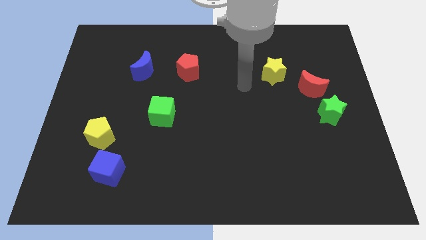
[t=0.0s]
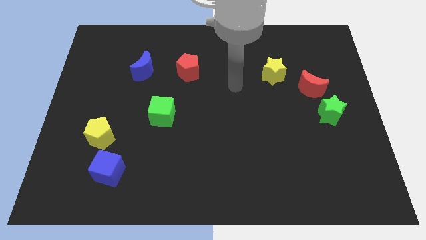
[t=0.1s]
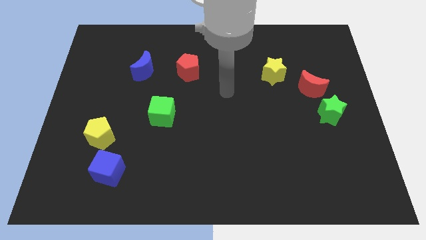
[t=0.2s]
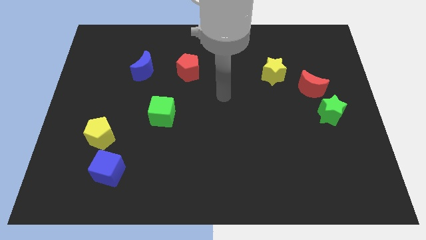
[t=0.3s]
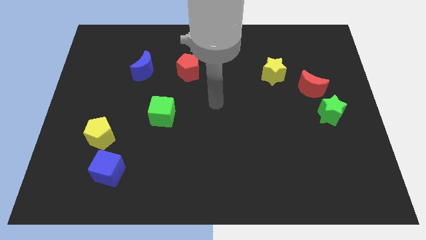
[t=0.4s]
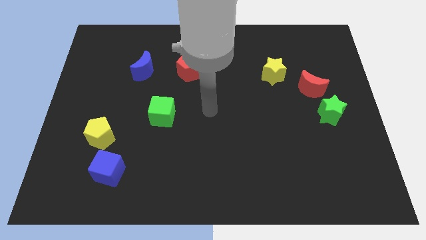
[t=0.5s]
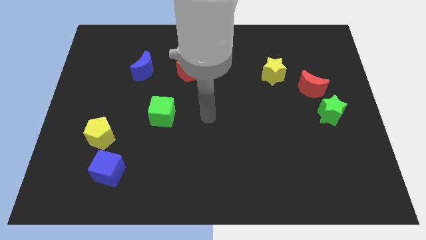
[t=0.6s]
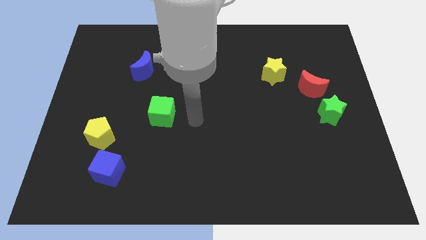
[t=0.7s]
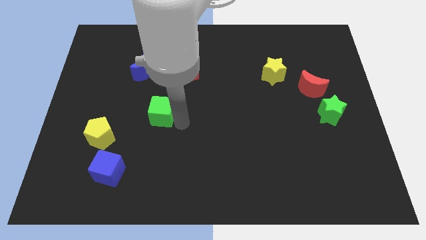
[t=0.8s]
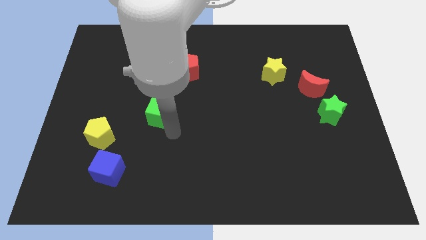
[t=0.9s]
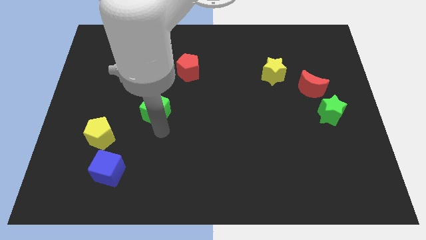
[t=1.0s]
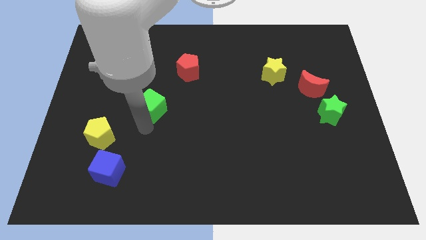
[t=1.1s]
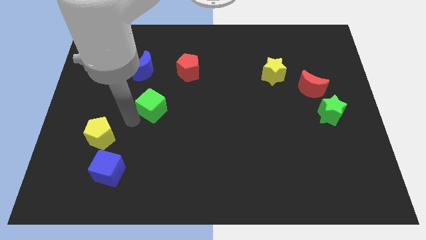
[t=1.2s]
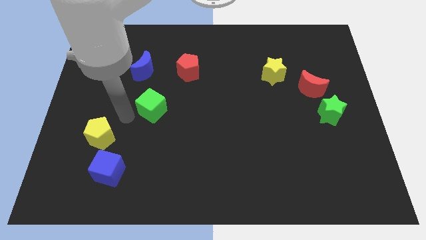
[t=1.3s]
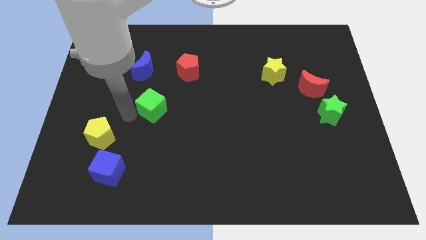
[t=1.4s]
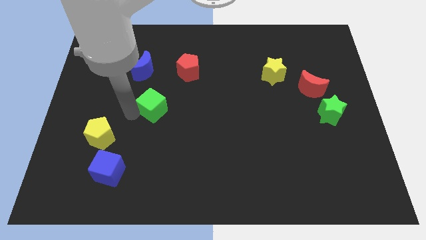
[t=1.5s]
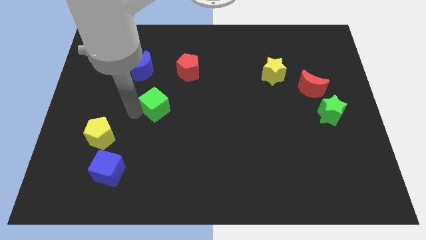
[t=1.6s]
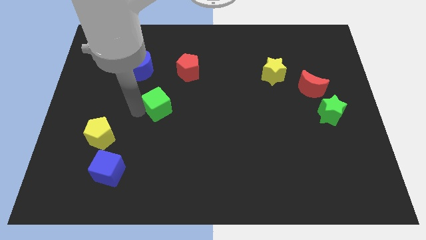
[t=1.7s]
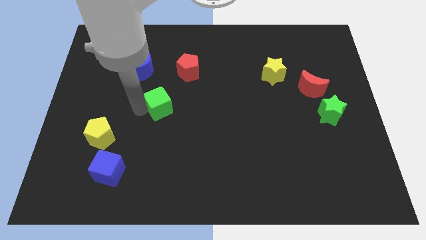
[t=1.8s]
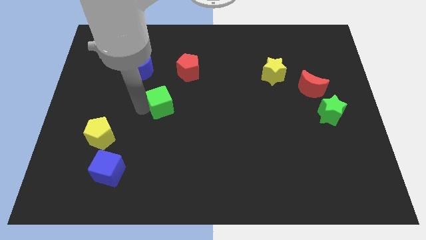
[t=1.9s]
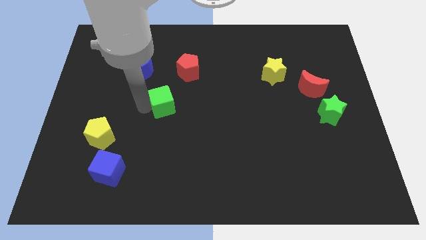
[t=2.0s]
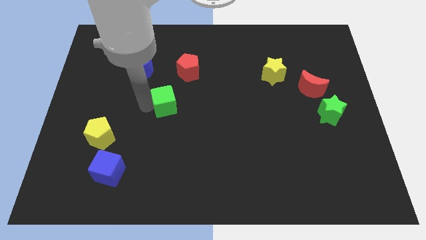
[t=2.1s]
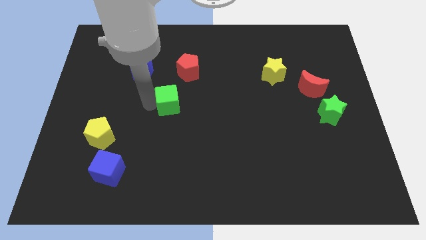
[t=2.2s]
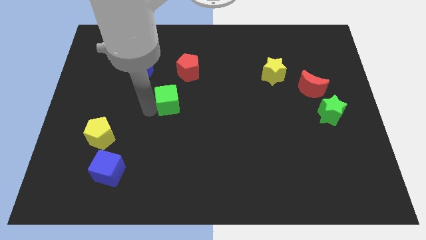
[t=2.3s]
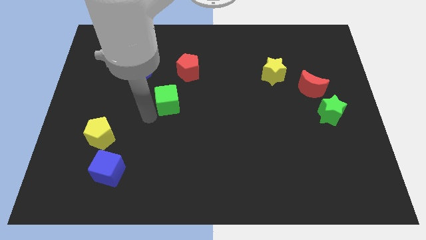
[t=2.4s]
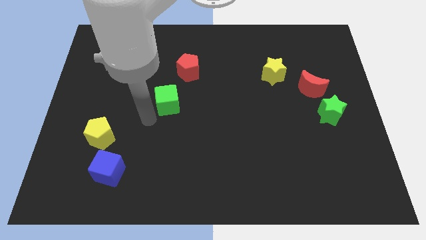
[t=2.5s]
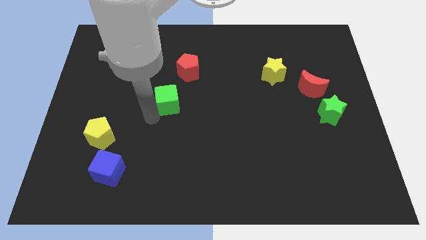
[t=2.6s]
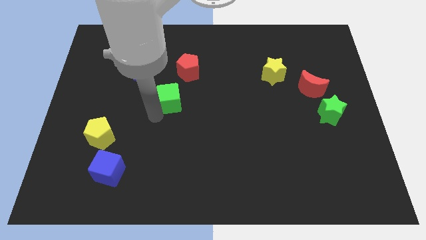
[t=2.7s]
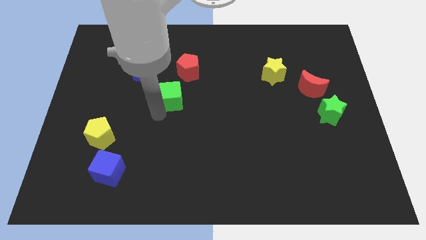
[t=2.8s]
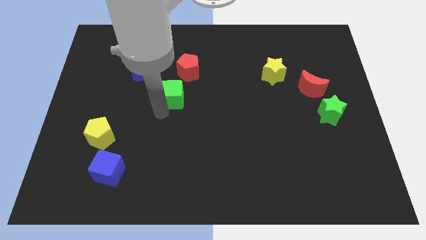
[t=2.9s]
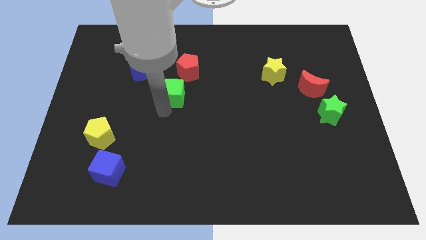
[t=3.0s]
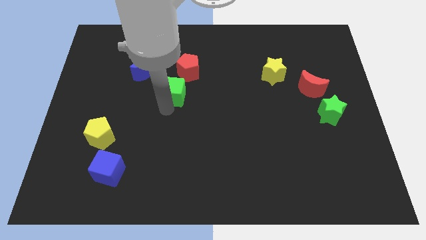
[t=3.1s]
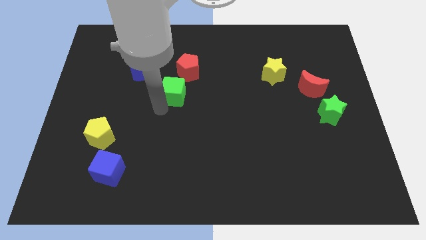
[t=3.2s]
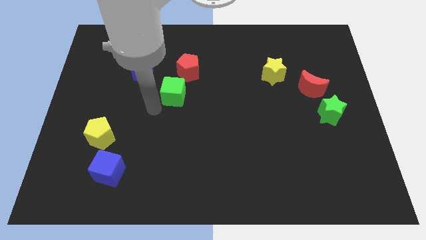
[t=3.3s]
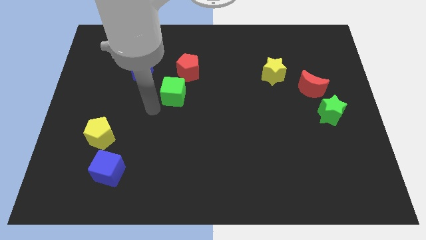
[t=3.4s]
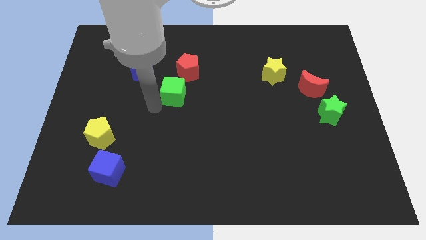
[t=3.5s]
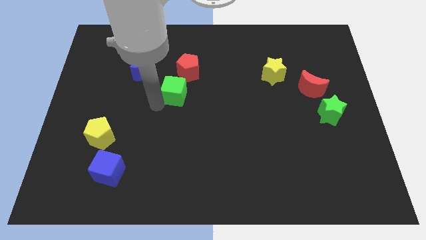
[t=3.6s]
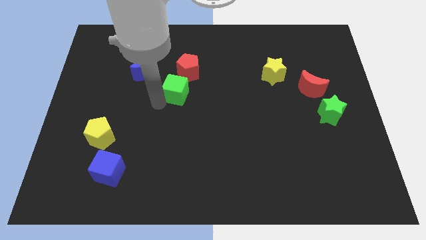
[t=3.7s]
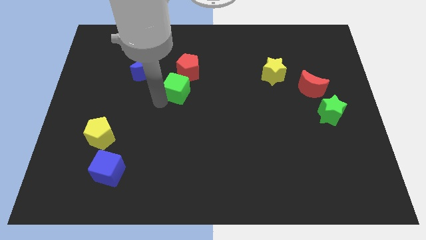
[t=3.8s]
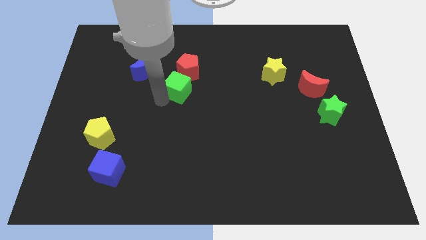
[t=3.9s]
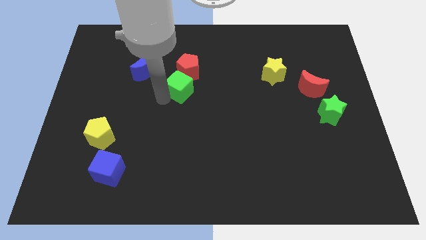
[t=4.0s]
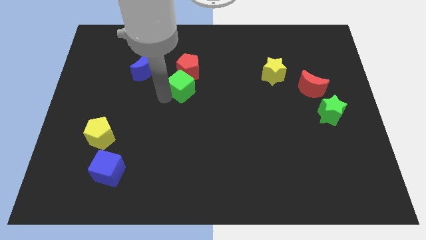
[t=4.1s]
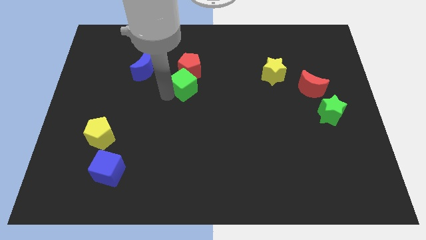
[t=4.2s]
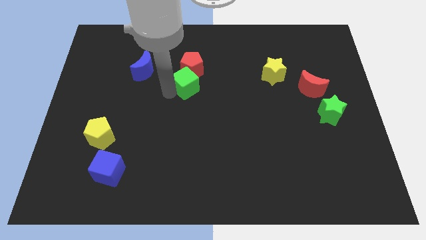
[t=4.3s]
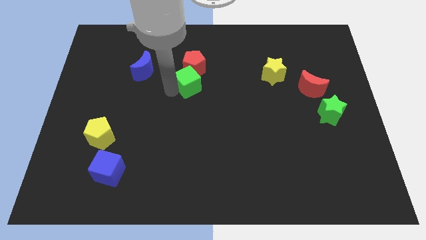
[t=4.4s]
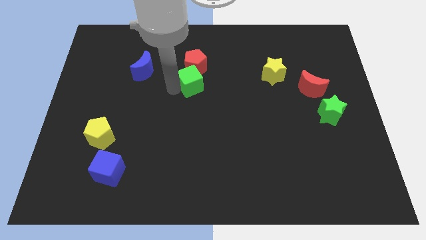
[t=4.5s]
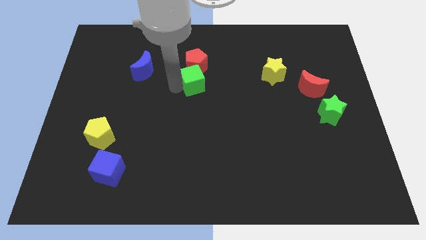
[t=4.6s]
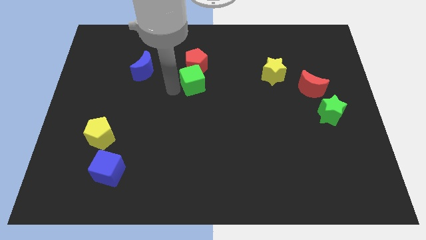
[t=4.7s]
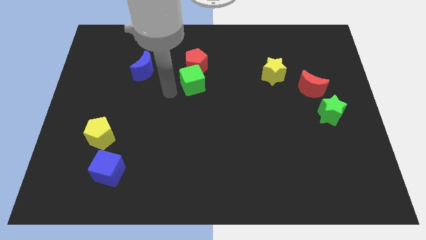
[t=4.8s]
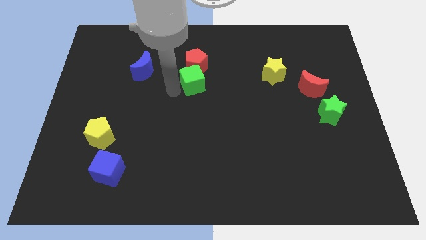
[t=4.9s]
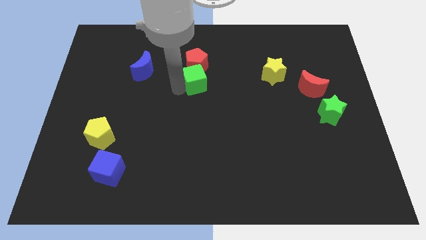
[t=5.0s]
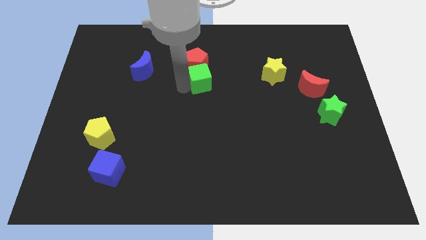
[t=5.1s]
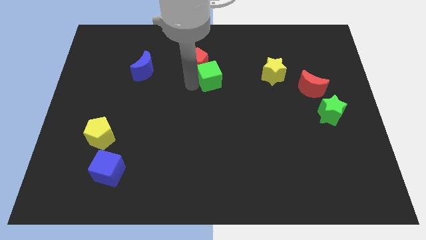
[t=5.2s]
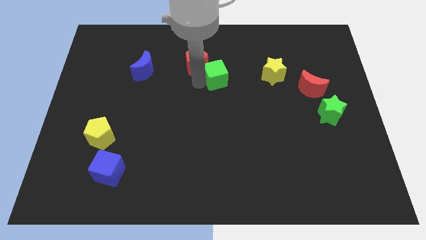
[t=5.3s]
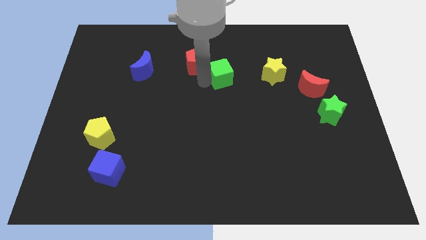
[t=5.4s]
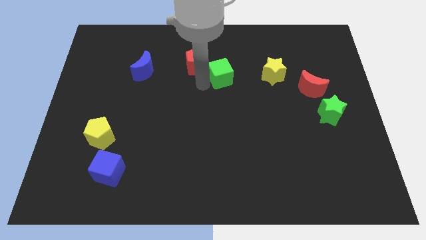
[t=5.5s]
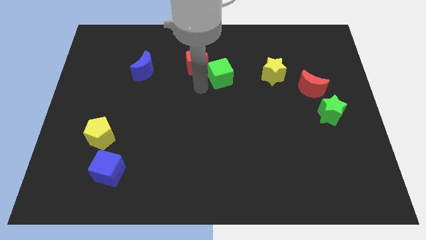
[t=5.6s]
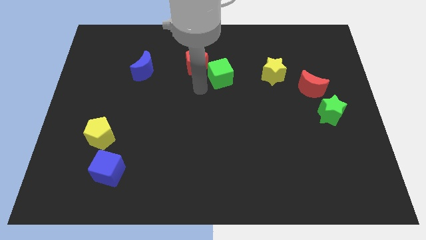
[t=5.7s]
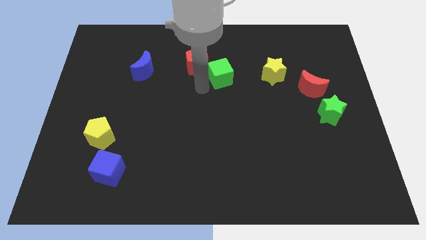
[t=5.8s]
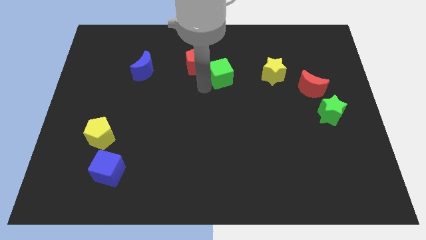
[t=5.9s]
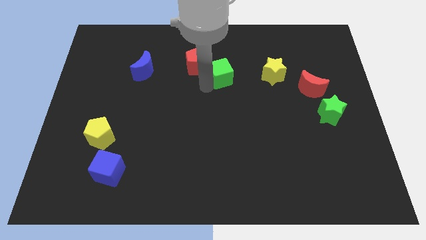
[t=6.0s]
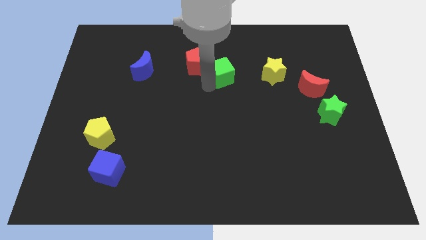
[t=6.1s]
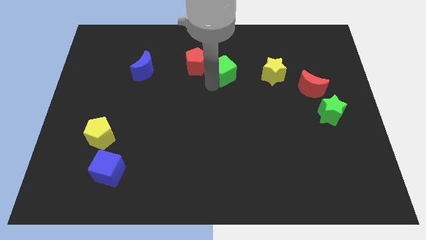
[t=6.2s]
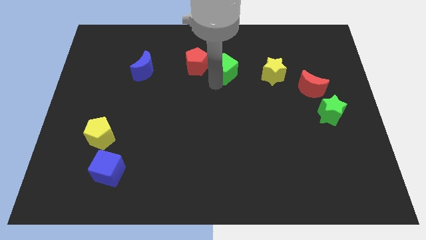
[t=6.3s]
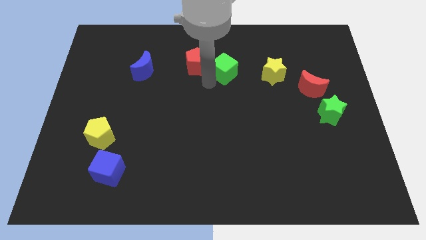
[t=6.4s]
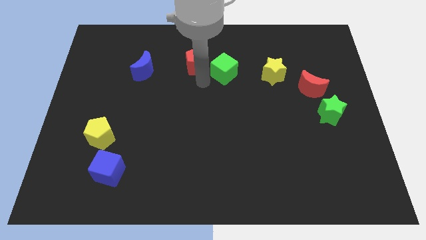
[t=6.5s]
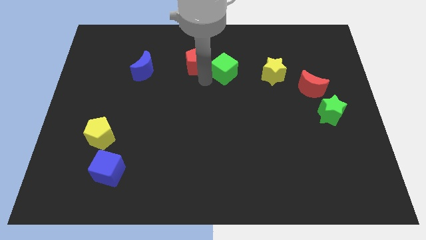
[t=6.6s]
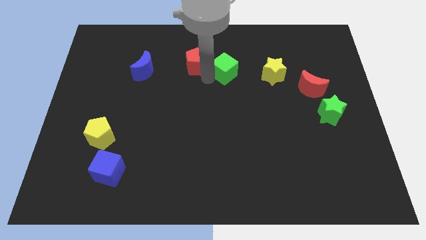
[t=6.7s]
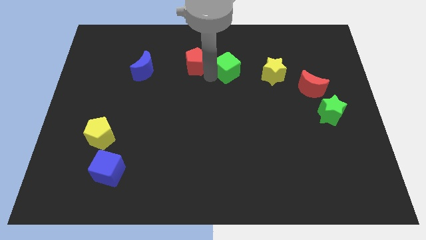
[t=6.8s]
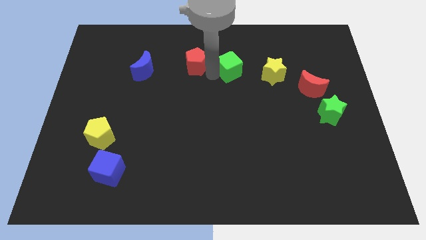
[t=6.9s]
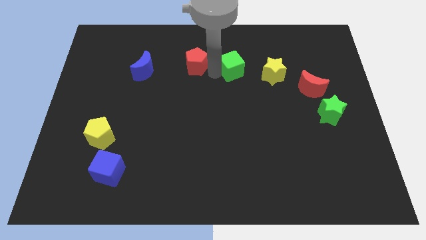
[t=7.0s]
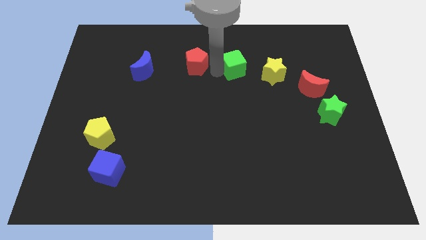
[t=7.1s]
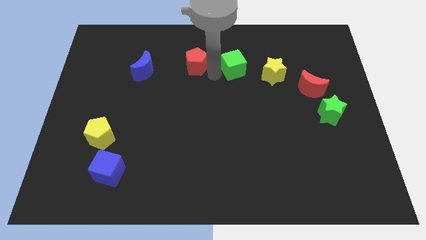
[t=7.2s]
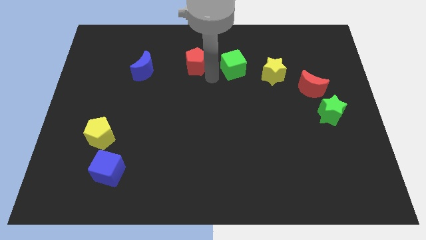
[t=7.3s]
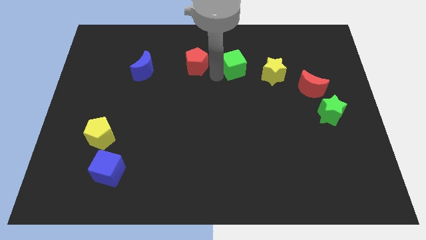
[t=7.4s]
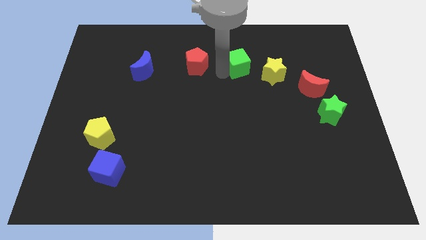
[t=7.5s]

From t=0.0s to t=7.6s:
move the green cube diagonally up and to the left of the yellow star

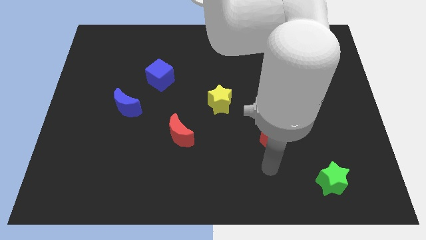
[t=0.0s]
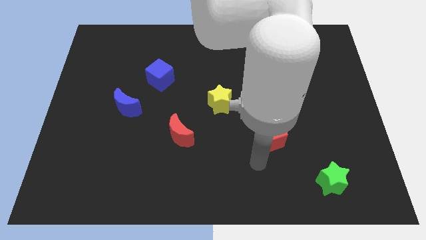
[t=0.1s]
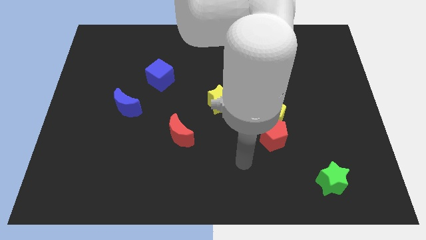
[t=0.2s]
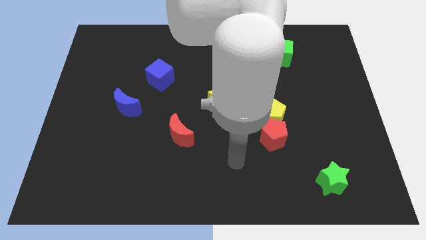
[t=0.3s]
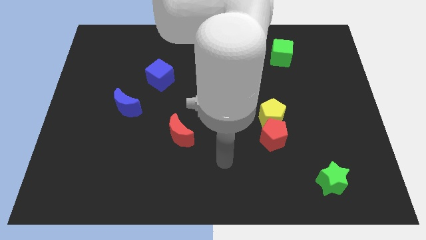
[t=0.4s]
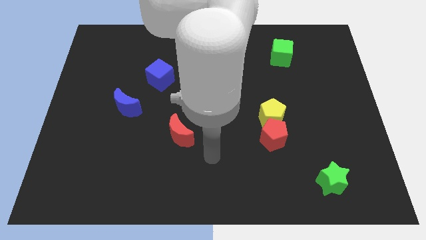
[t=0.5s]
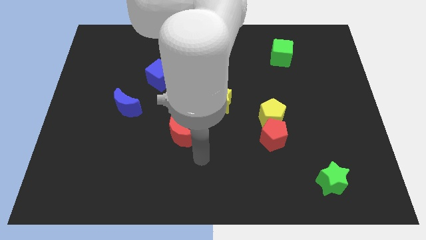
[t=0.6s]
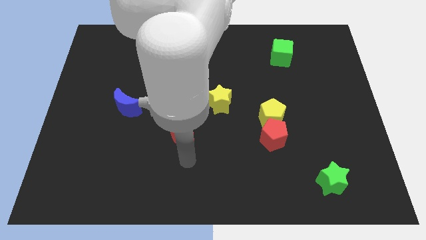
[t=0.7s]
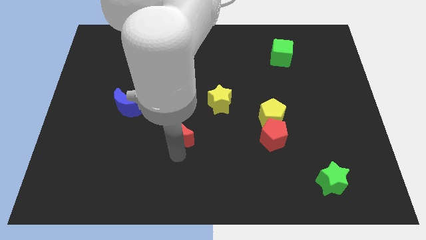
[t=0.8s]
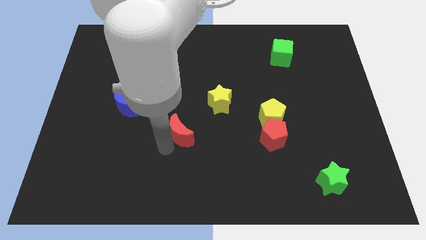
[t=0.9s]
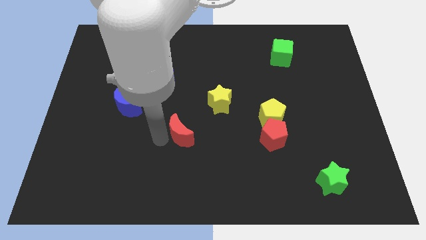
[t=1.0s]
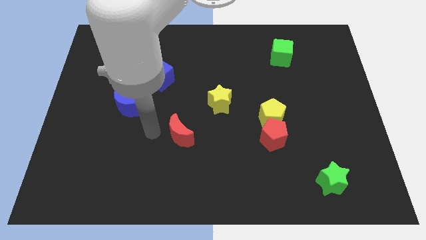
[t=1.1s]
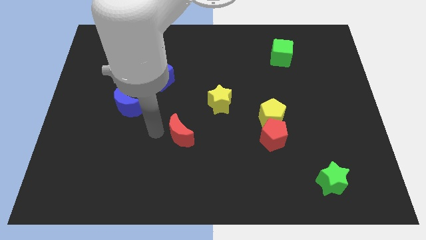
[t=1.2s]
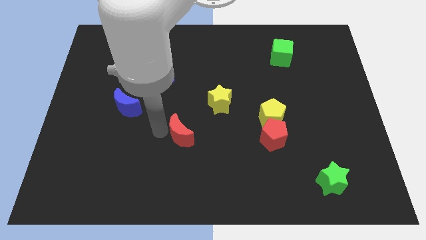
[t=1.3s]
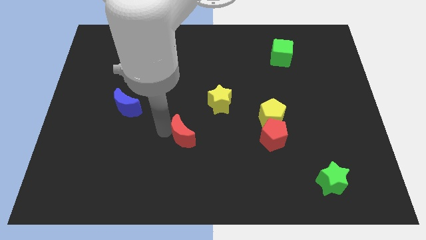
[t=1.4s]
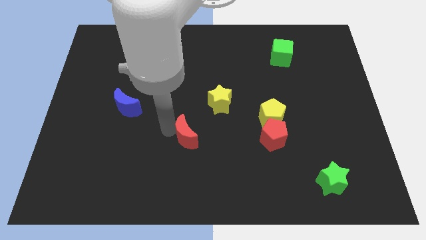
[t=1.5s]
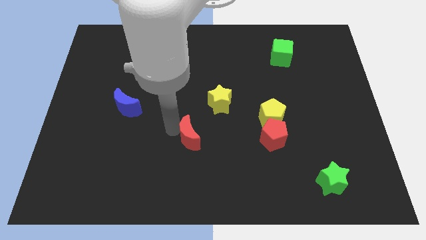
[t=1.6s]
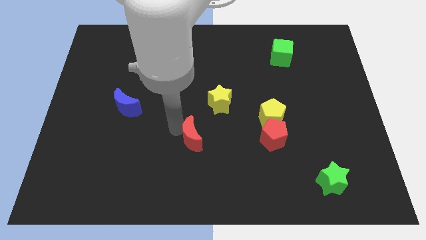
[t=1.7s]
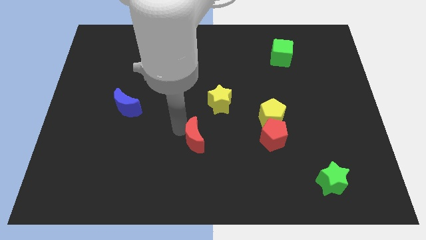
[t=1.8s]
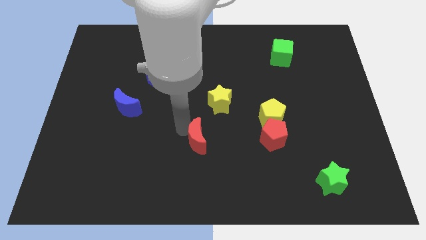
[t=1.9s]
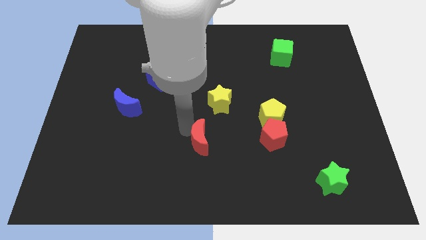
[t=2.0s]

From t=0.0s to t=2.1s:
push the red moon below the yellow star
